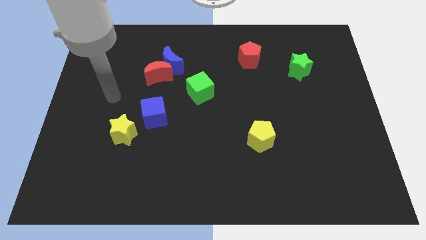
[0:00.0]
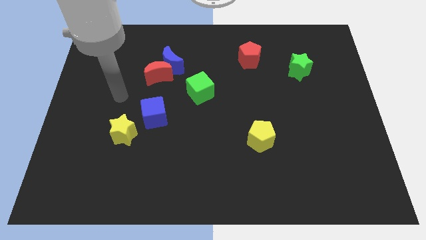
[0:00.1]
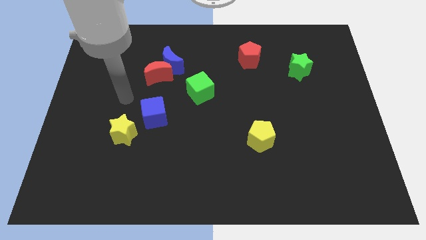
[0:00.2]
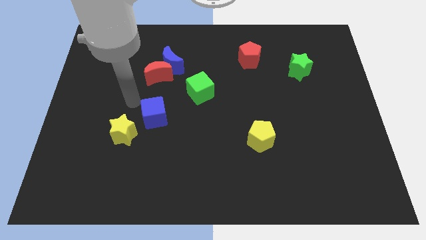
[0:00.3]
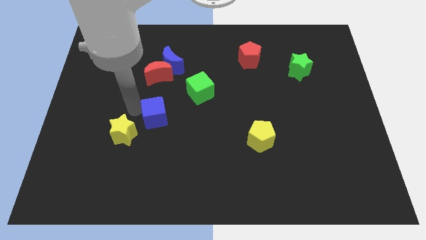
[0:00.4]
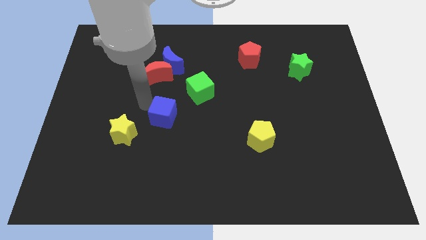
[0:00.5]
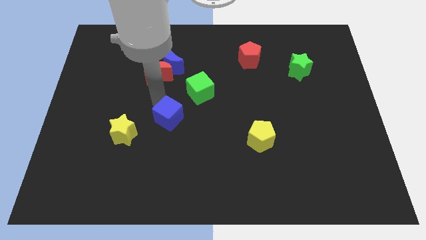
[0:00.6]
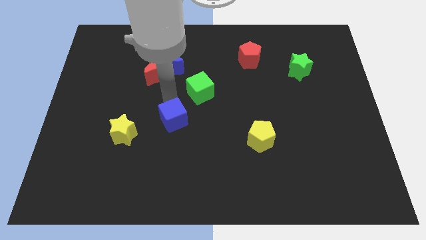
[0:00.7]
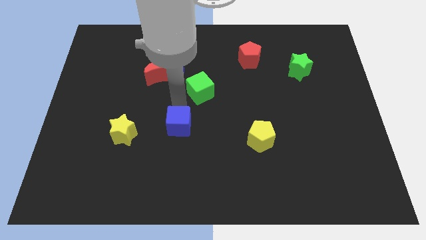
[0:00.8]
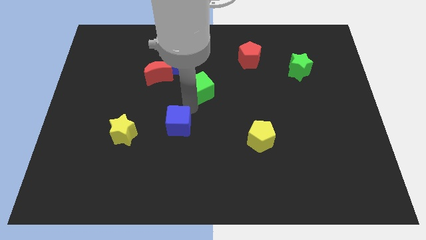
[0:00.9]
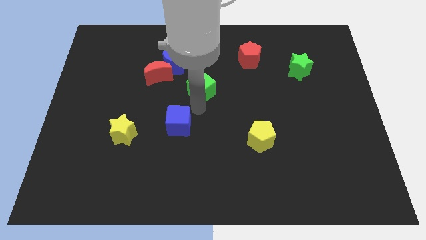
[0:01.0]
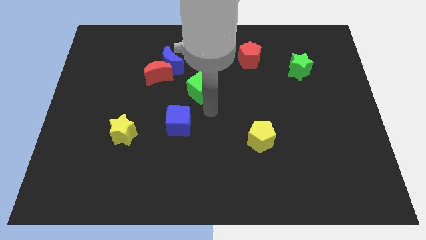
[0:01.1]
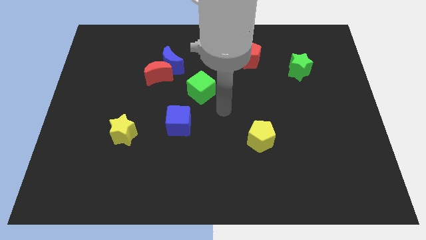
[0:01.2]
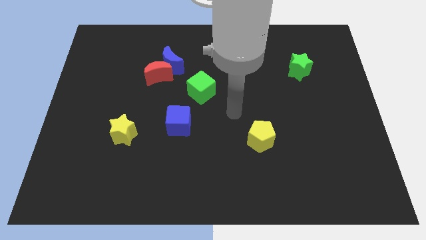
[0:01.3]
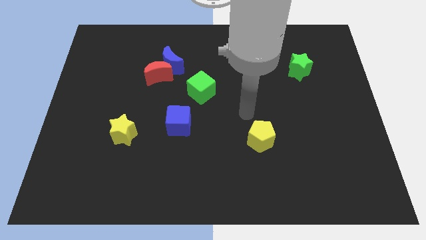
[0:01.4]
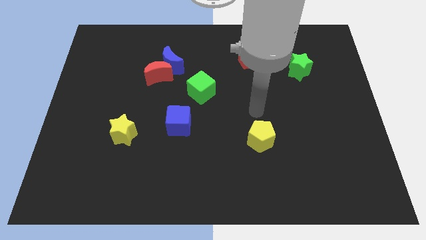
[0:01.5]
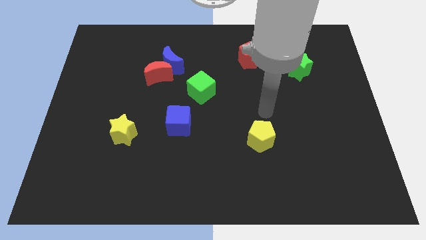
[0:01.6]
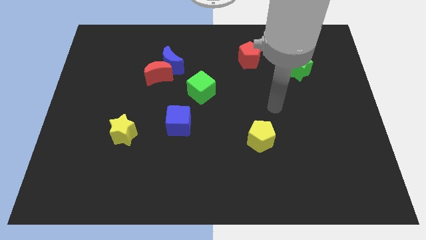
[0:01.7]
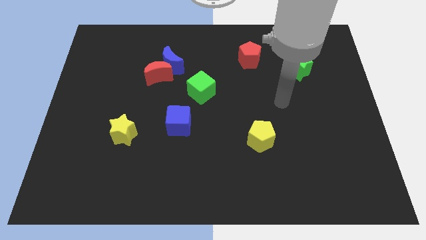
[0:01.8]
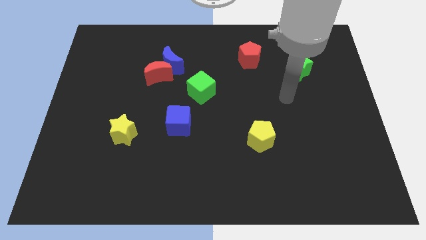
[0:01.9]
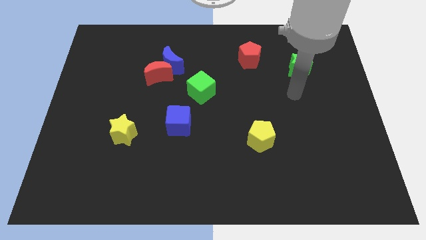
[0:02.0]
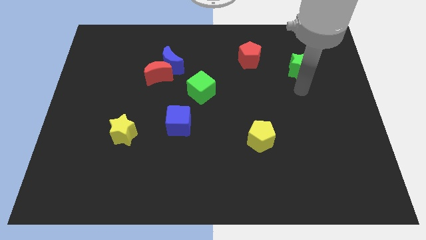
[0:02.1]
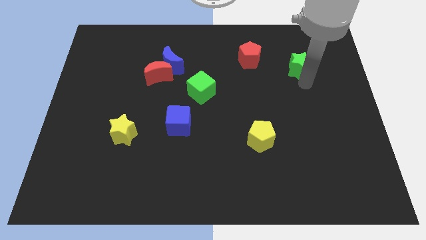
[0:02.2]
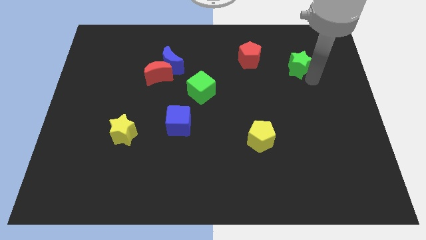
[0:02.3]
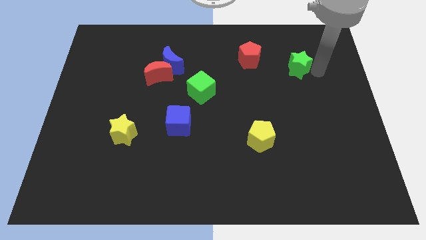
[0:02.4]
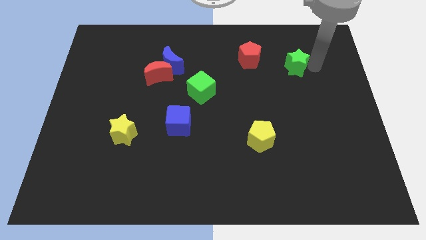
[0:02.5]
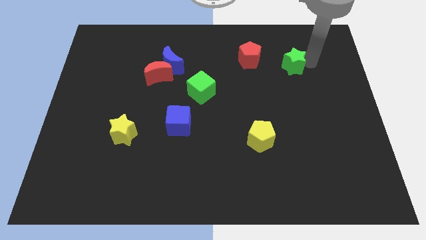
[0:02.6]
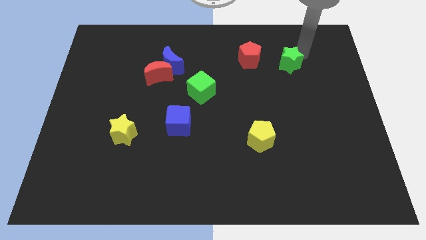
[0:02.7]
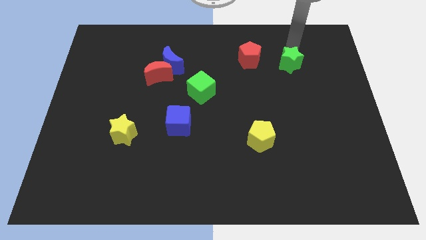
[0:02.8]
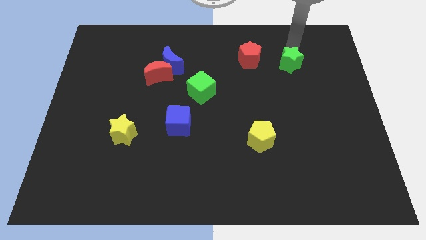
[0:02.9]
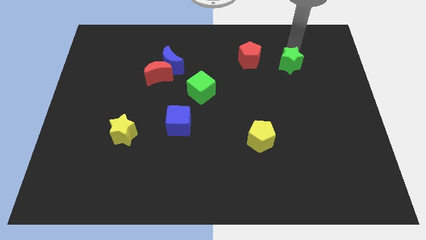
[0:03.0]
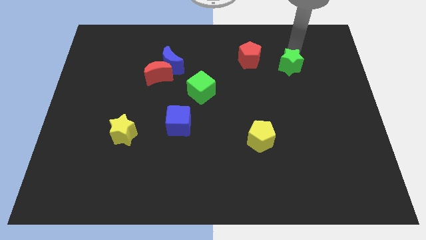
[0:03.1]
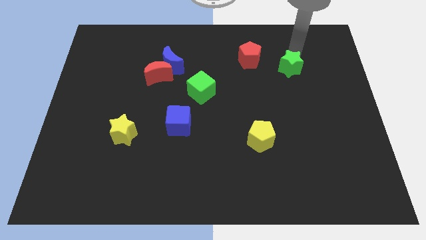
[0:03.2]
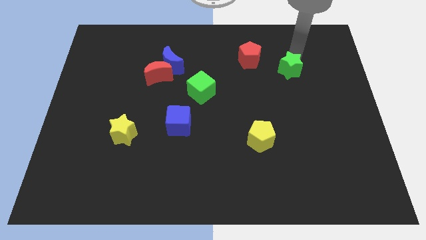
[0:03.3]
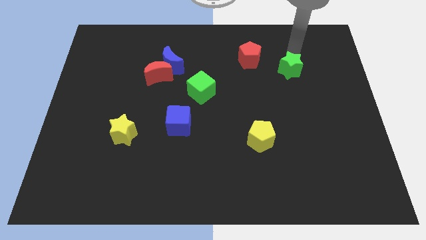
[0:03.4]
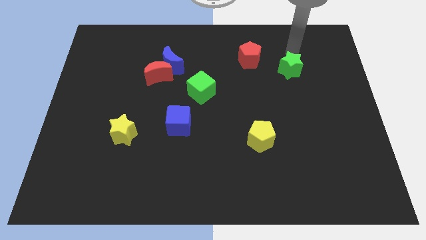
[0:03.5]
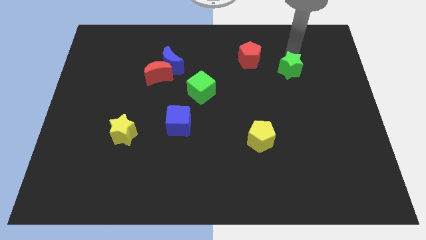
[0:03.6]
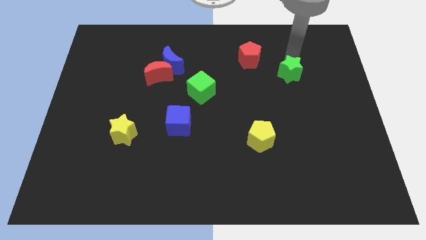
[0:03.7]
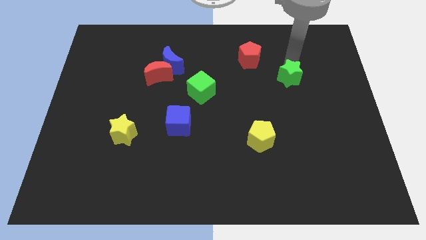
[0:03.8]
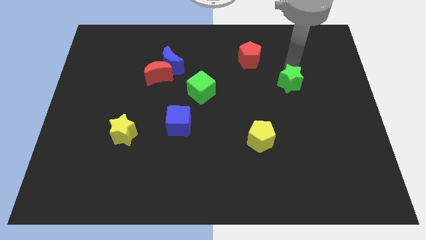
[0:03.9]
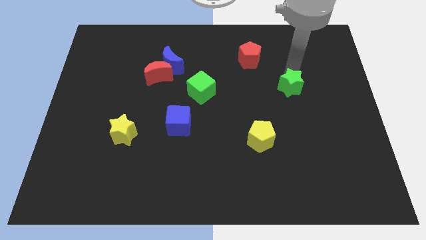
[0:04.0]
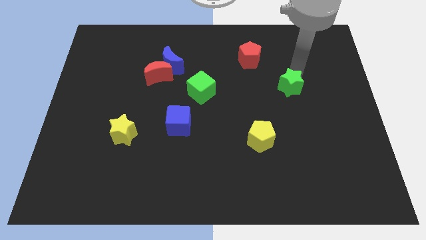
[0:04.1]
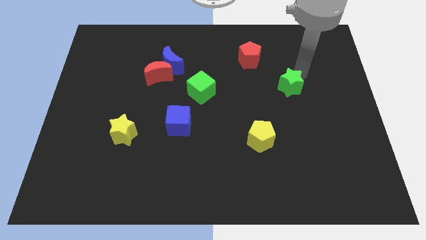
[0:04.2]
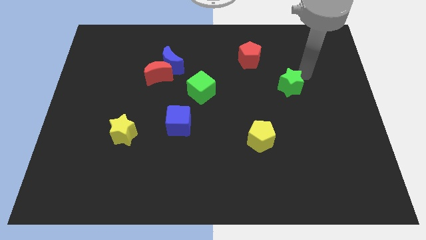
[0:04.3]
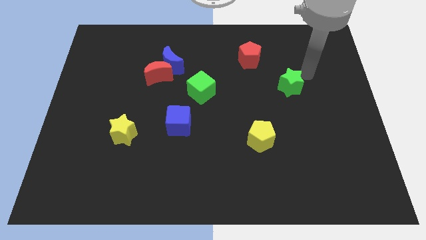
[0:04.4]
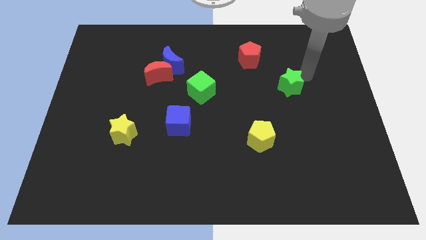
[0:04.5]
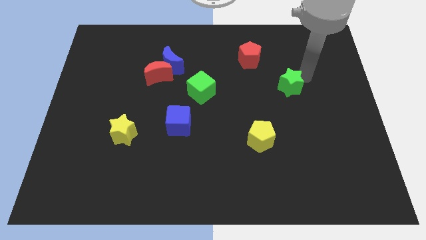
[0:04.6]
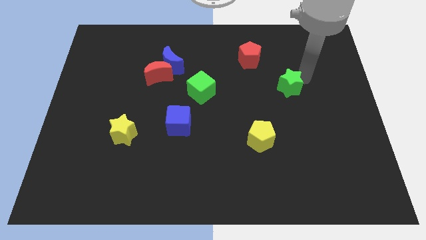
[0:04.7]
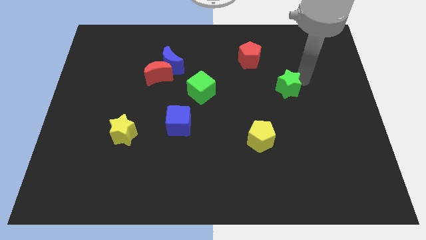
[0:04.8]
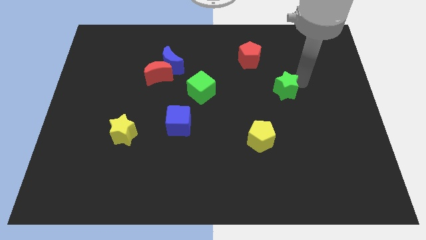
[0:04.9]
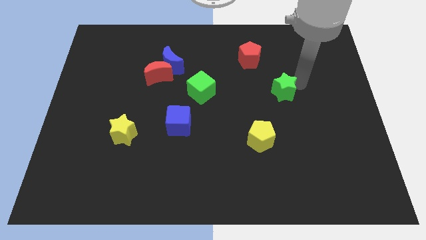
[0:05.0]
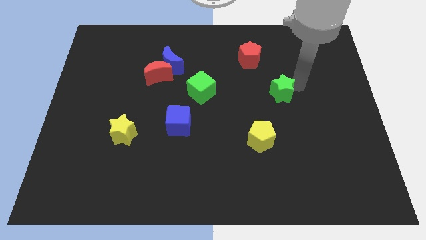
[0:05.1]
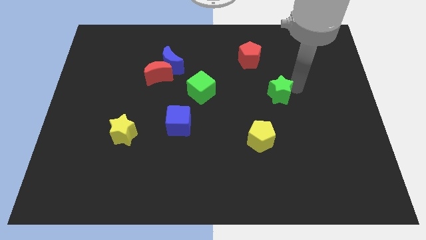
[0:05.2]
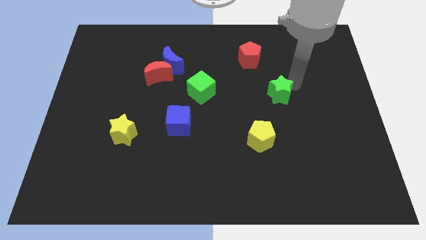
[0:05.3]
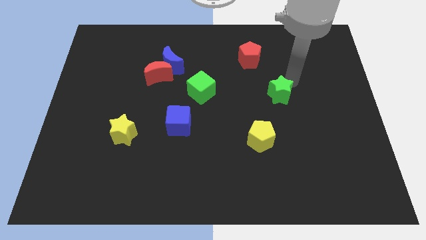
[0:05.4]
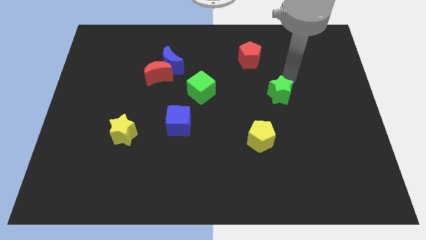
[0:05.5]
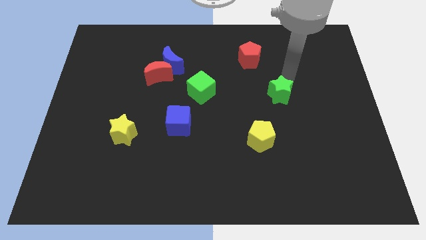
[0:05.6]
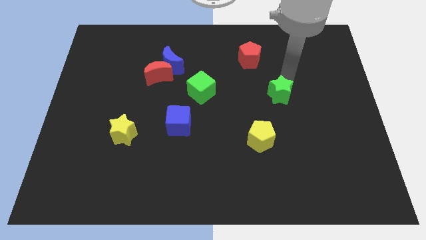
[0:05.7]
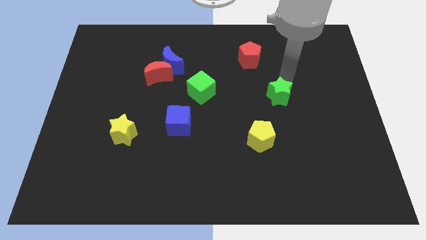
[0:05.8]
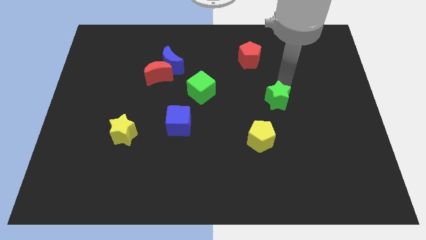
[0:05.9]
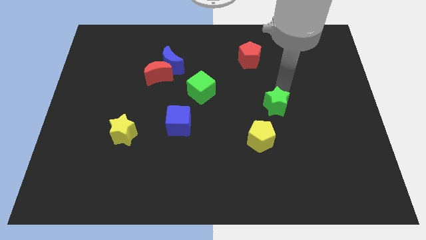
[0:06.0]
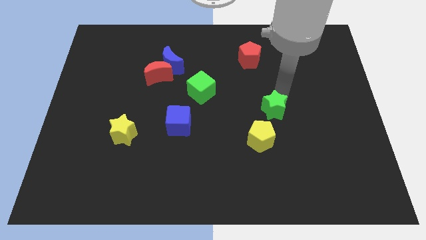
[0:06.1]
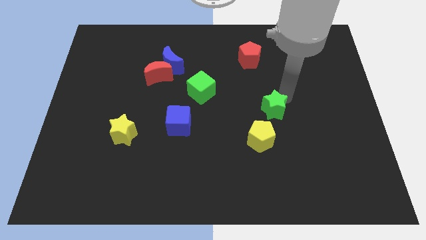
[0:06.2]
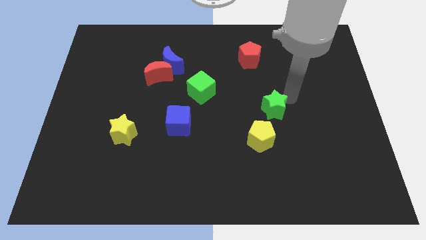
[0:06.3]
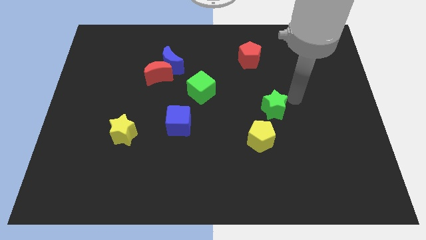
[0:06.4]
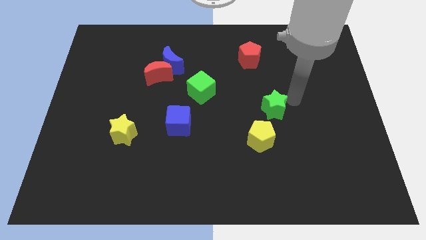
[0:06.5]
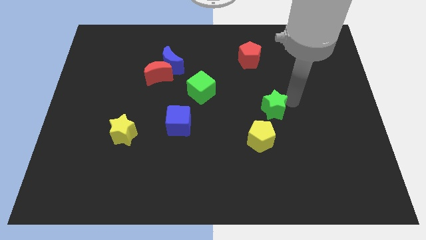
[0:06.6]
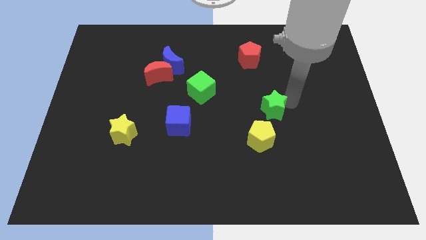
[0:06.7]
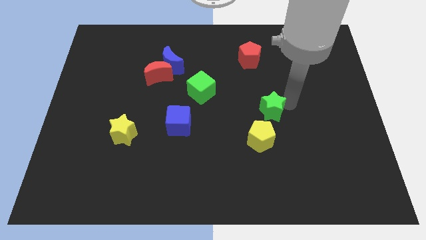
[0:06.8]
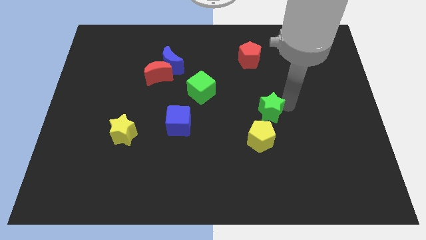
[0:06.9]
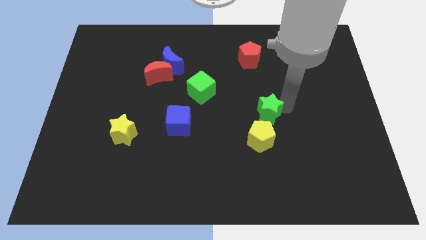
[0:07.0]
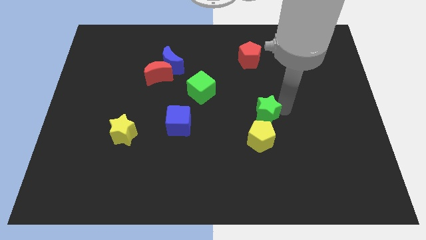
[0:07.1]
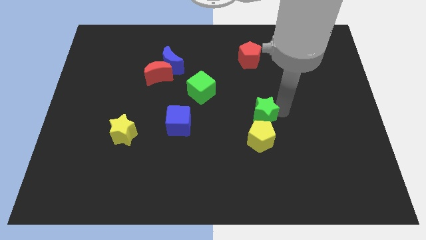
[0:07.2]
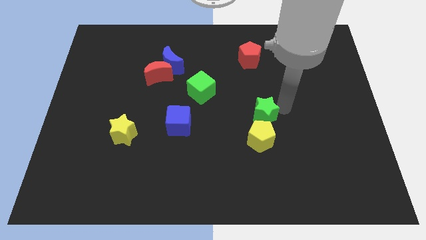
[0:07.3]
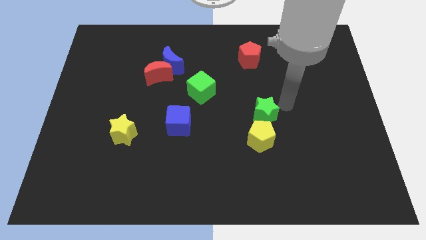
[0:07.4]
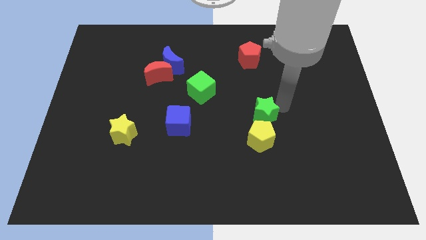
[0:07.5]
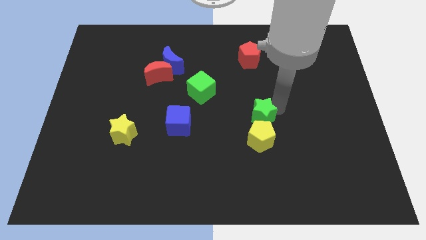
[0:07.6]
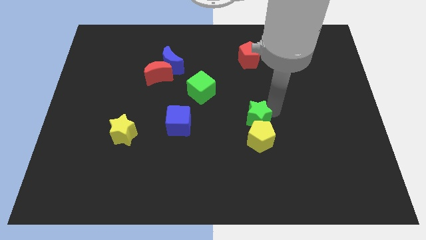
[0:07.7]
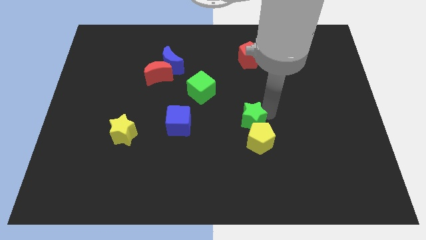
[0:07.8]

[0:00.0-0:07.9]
move the green star diagonally down and to the left
